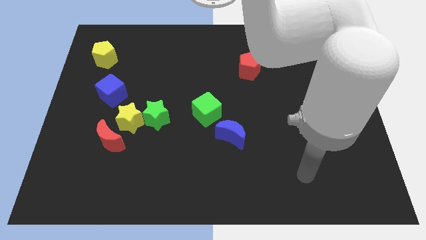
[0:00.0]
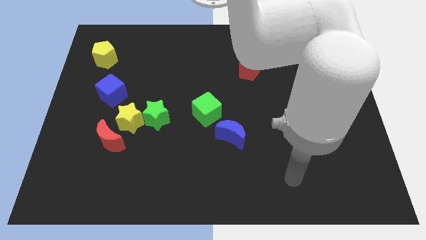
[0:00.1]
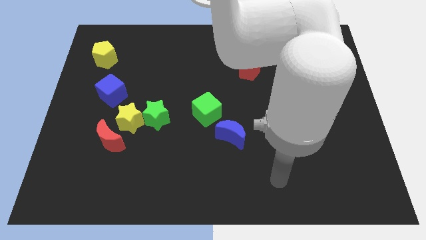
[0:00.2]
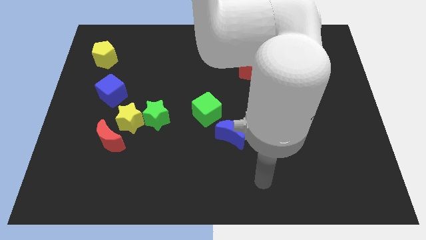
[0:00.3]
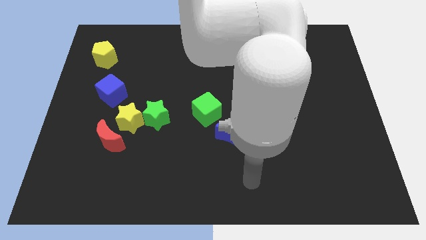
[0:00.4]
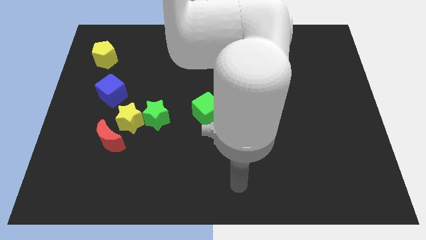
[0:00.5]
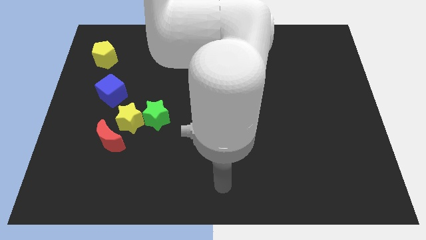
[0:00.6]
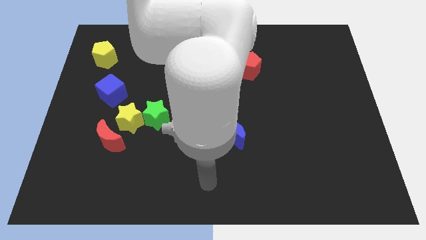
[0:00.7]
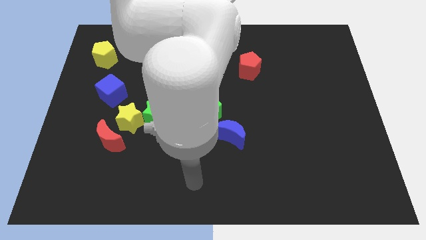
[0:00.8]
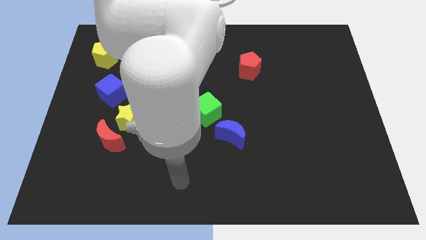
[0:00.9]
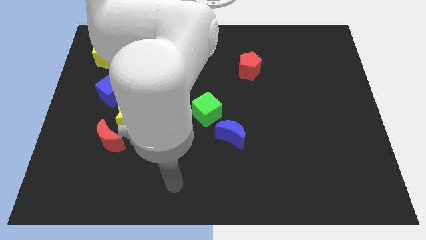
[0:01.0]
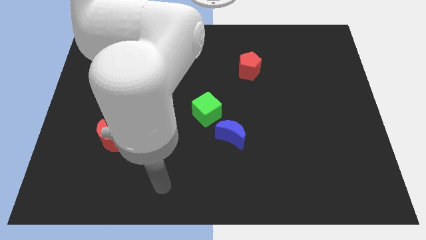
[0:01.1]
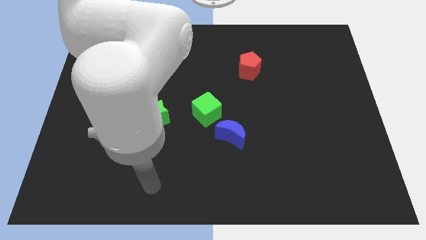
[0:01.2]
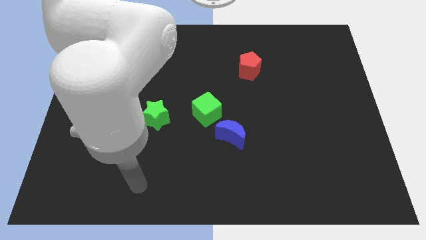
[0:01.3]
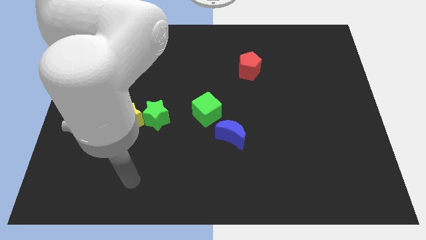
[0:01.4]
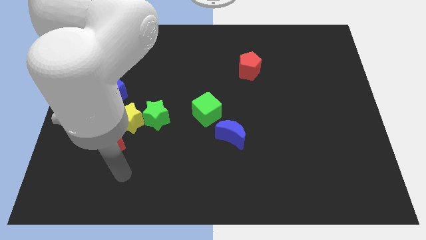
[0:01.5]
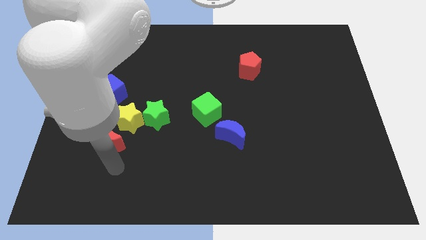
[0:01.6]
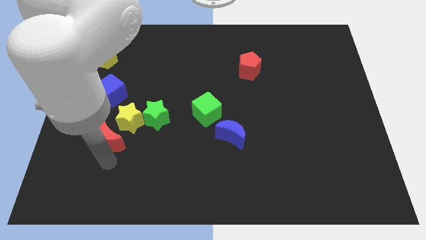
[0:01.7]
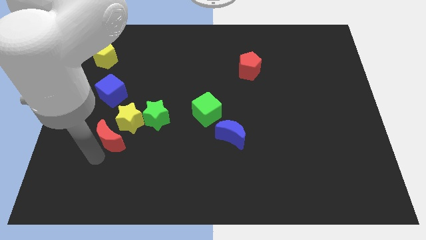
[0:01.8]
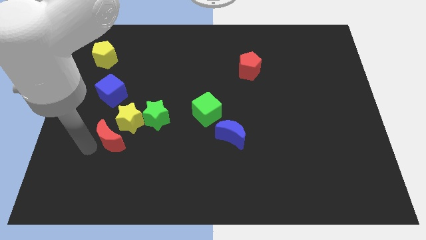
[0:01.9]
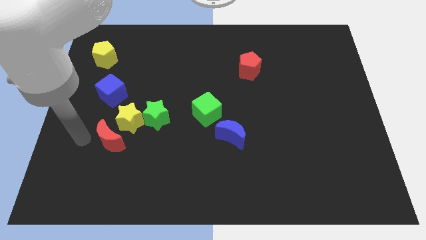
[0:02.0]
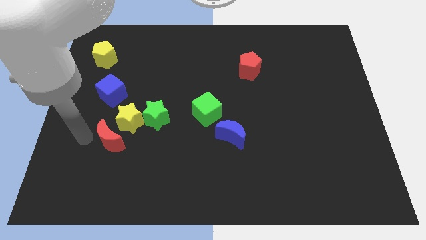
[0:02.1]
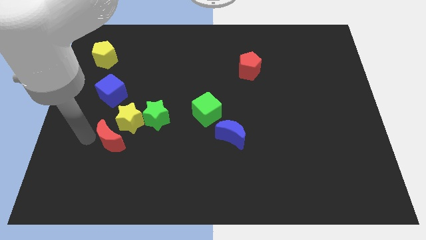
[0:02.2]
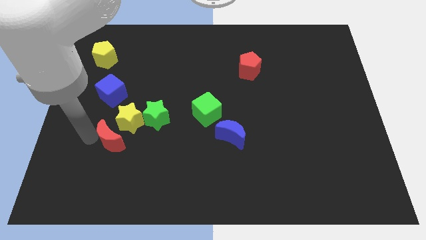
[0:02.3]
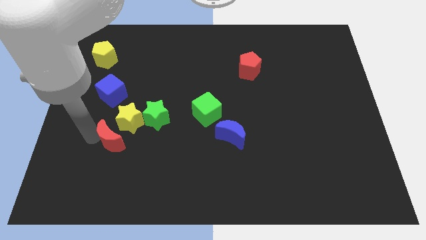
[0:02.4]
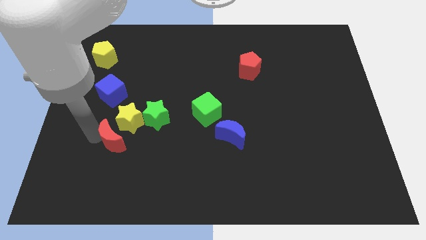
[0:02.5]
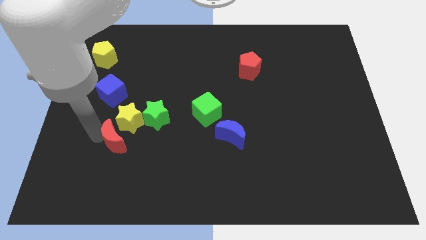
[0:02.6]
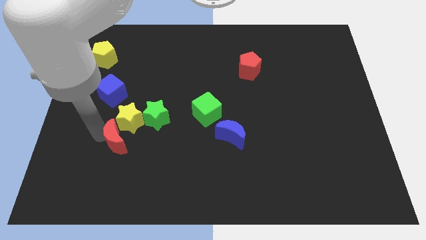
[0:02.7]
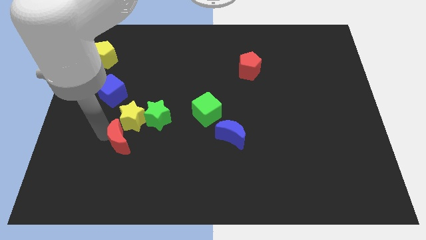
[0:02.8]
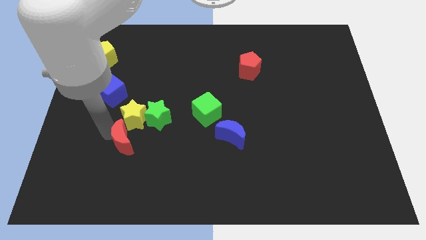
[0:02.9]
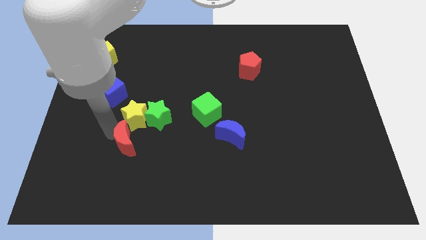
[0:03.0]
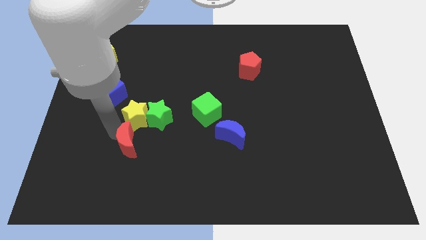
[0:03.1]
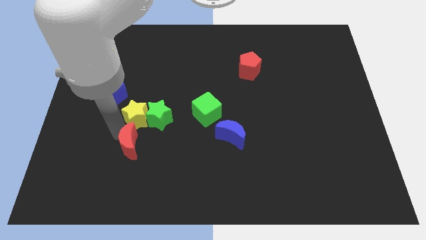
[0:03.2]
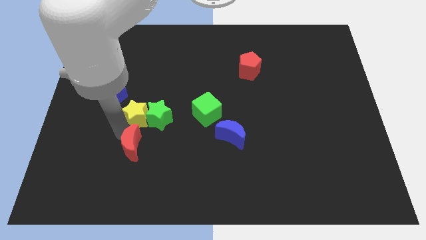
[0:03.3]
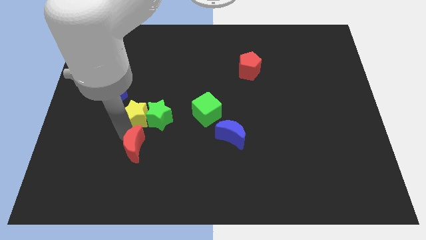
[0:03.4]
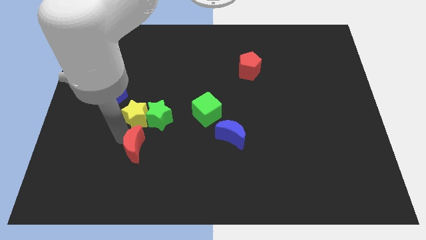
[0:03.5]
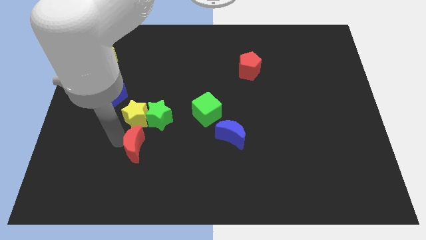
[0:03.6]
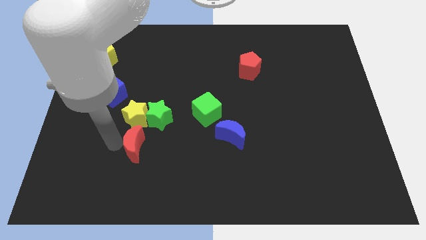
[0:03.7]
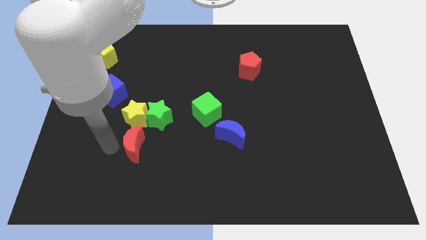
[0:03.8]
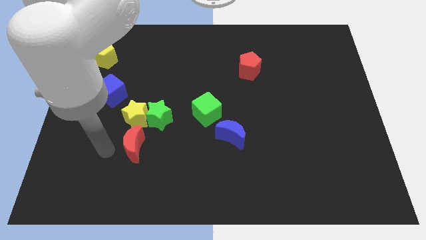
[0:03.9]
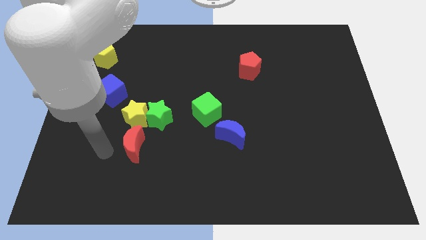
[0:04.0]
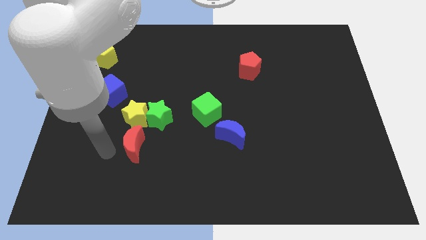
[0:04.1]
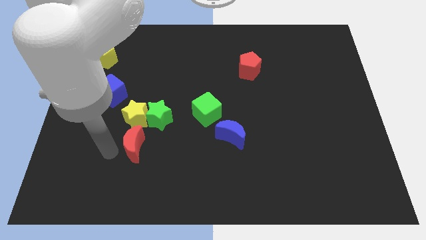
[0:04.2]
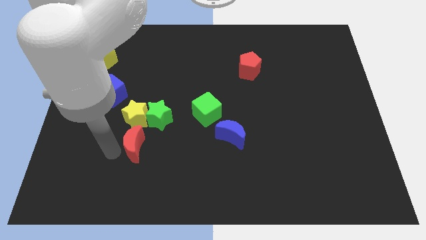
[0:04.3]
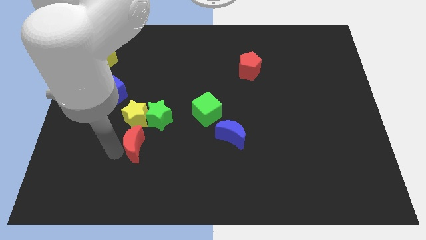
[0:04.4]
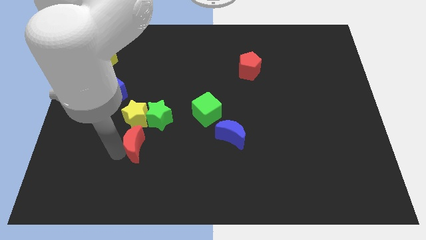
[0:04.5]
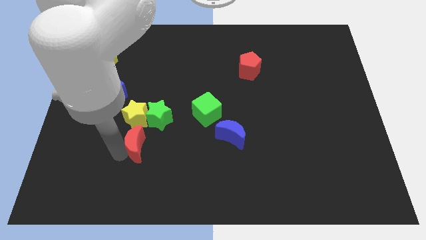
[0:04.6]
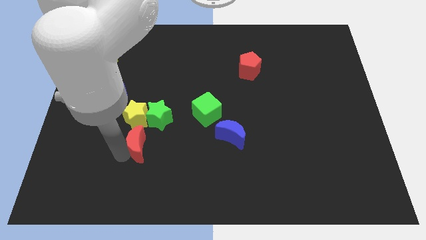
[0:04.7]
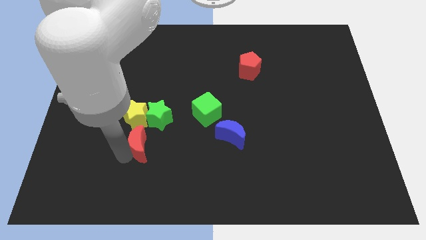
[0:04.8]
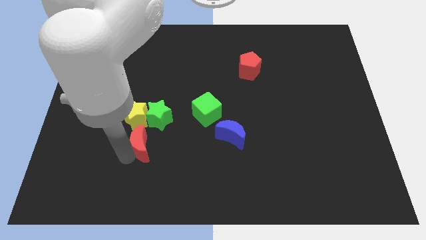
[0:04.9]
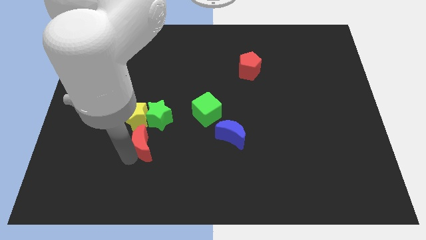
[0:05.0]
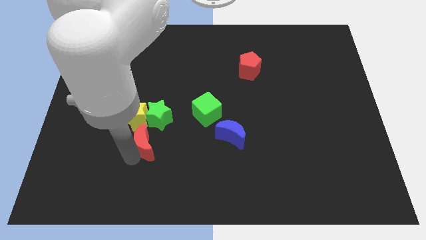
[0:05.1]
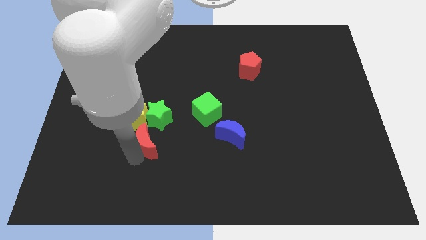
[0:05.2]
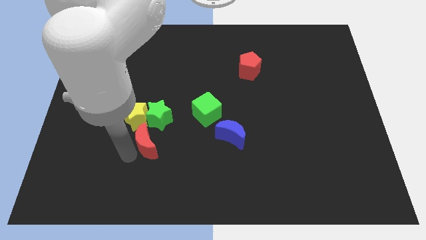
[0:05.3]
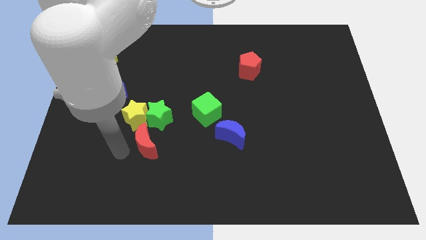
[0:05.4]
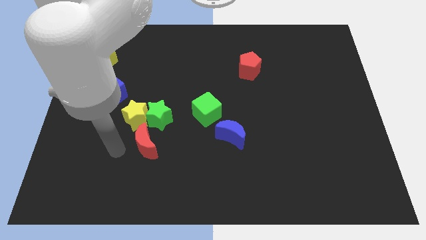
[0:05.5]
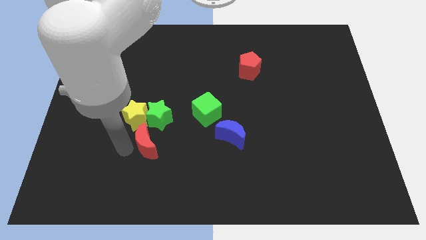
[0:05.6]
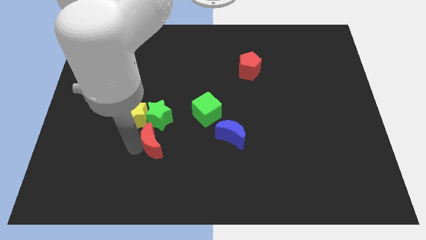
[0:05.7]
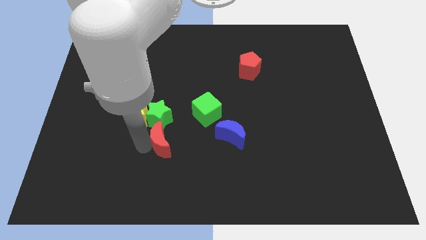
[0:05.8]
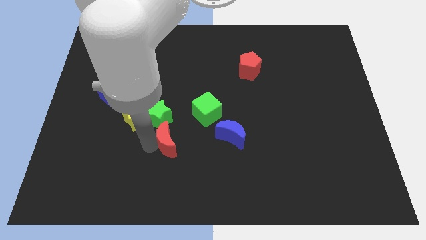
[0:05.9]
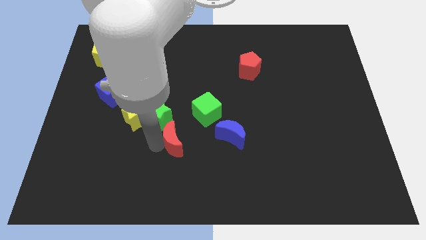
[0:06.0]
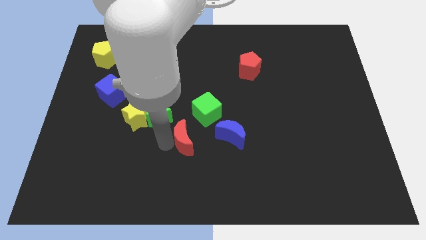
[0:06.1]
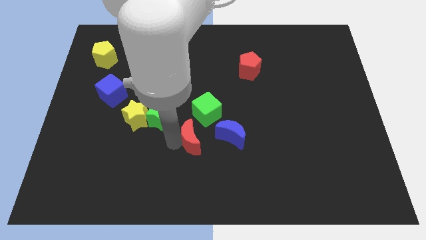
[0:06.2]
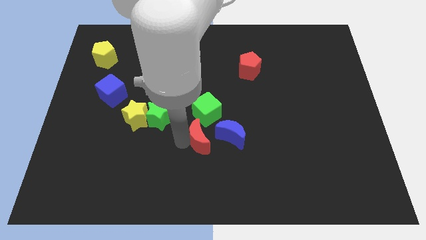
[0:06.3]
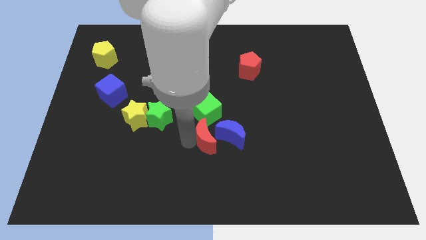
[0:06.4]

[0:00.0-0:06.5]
push the red moon close to the blue moon
